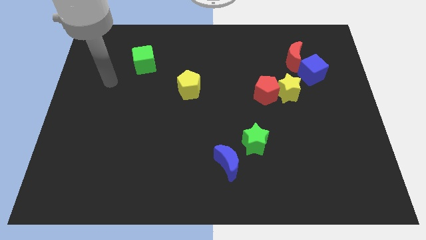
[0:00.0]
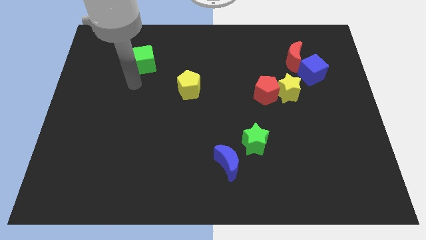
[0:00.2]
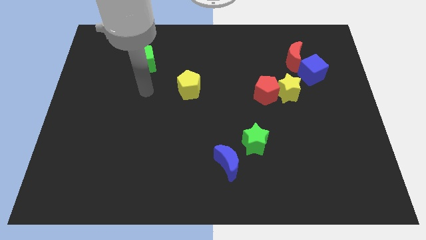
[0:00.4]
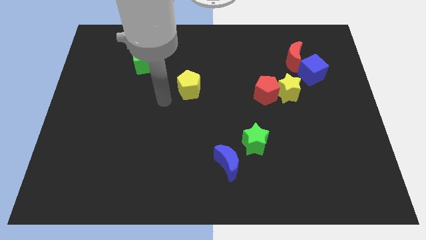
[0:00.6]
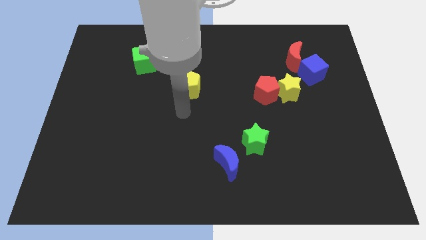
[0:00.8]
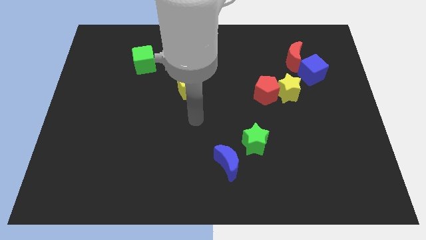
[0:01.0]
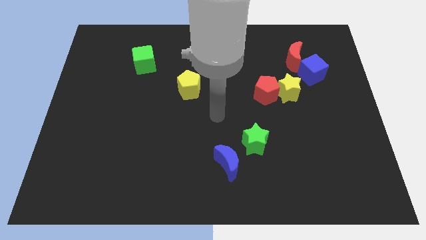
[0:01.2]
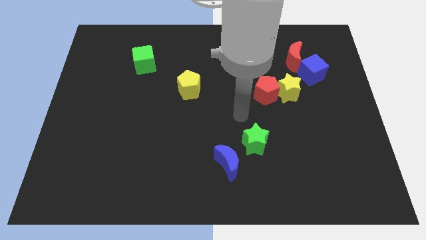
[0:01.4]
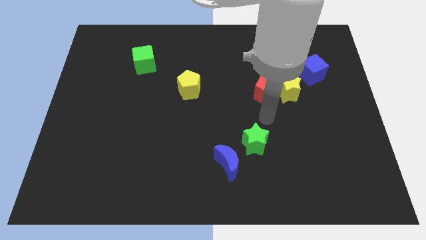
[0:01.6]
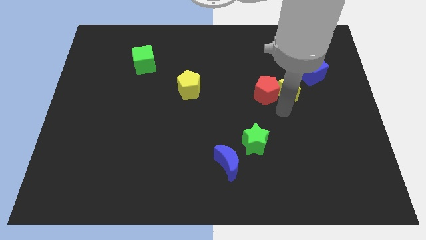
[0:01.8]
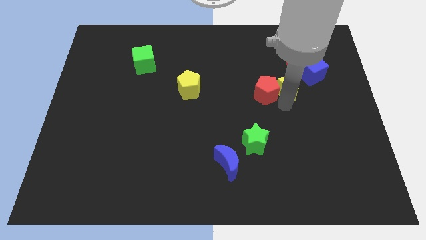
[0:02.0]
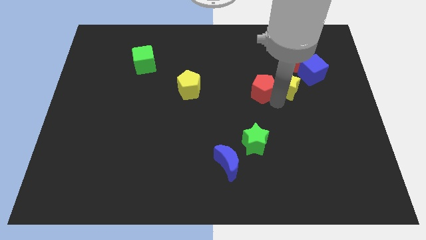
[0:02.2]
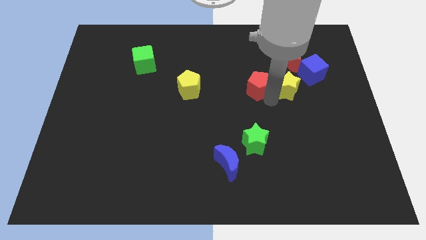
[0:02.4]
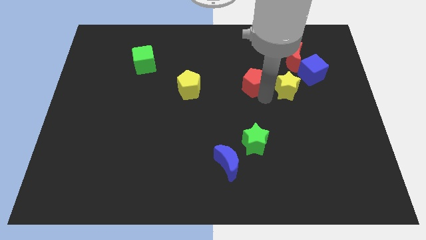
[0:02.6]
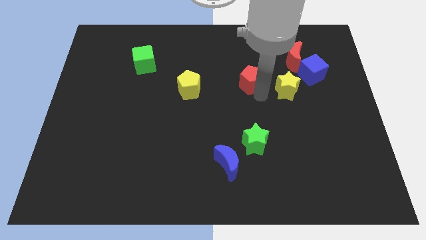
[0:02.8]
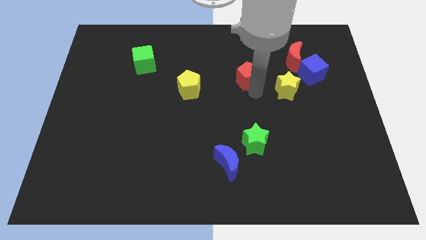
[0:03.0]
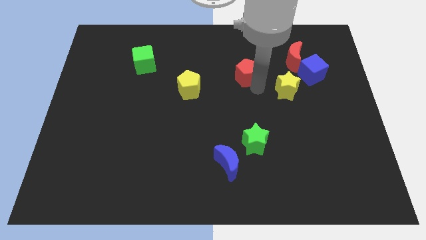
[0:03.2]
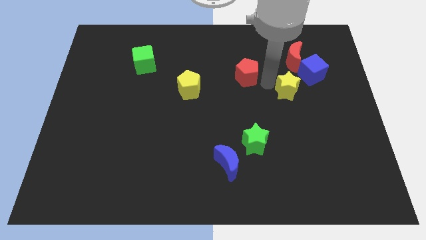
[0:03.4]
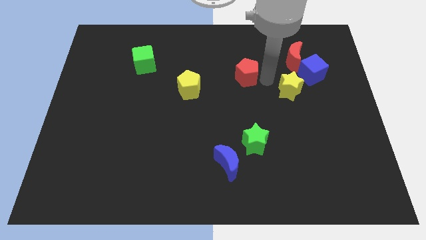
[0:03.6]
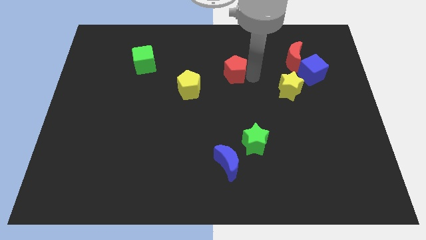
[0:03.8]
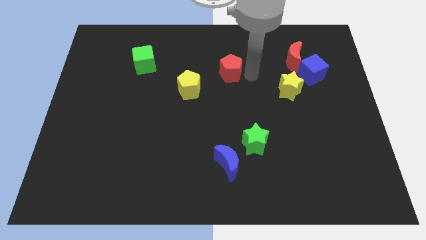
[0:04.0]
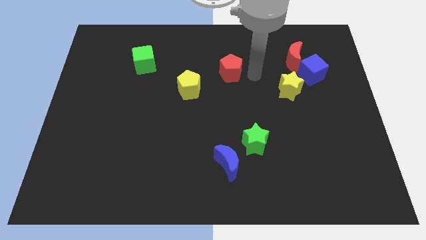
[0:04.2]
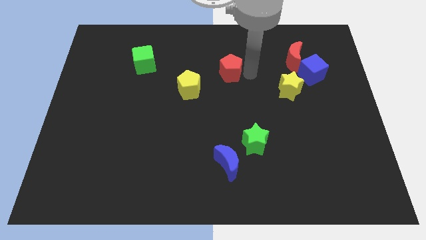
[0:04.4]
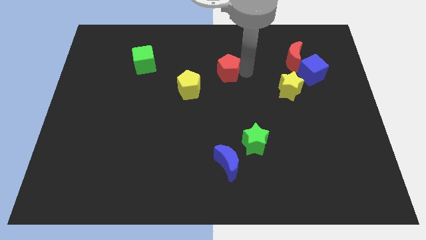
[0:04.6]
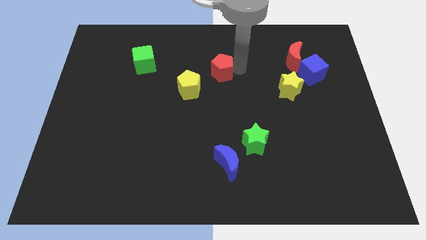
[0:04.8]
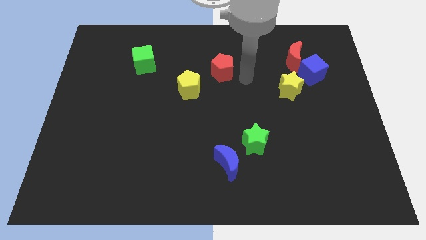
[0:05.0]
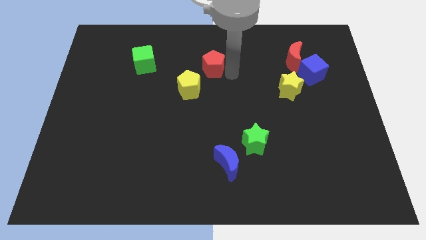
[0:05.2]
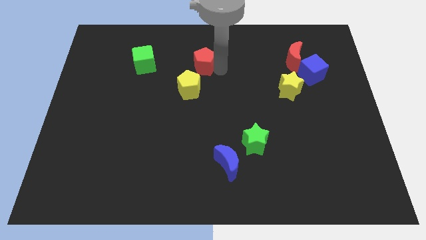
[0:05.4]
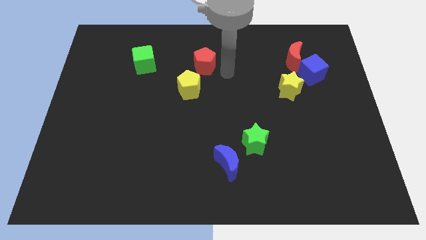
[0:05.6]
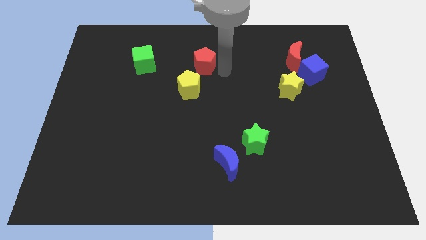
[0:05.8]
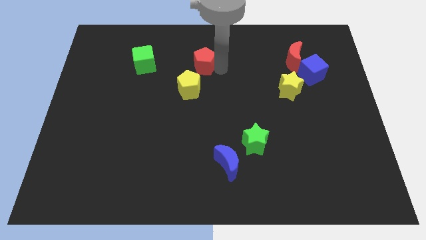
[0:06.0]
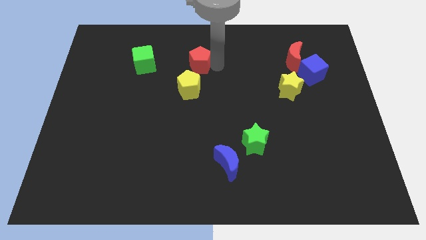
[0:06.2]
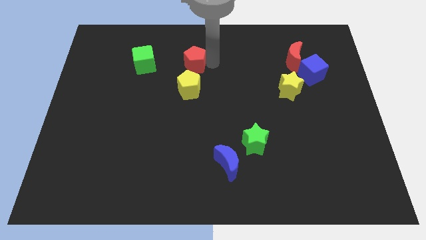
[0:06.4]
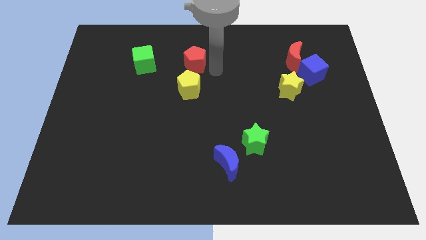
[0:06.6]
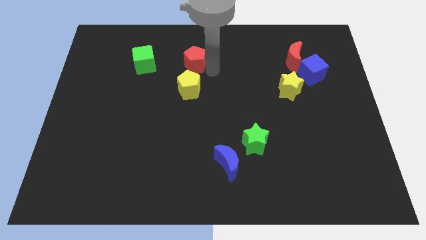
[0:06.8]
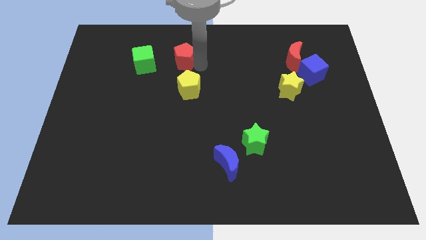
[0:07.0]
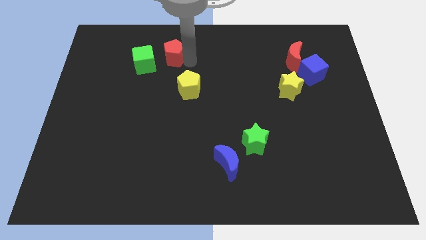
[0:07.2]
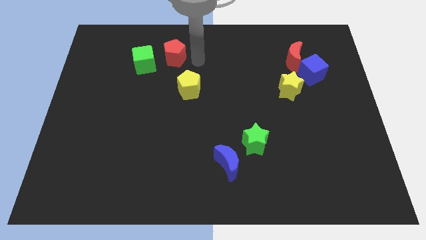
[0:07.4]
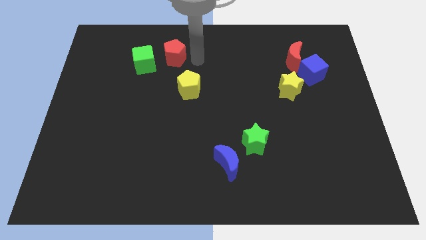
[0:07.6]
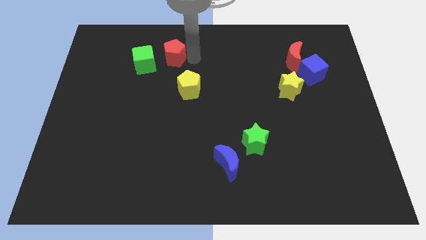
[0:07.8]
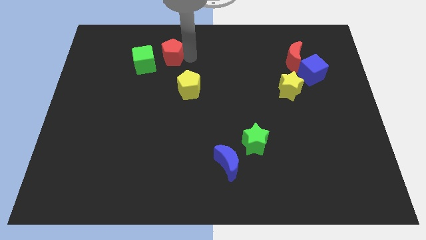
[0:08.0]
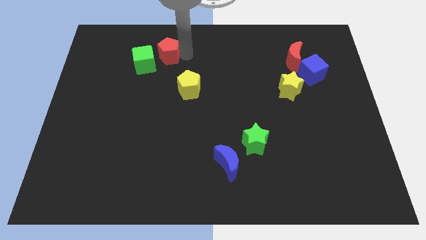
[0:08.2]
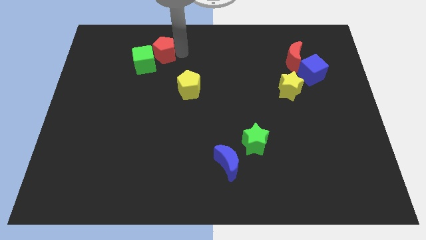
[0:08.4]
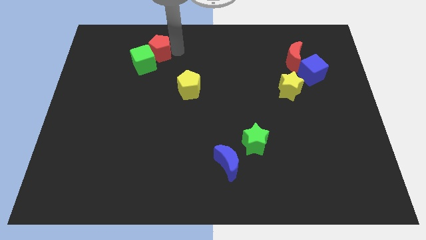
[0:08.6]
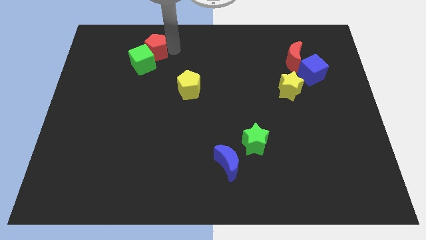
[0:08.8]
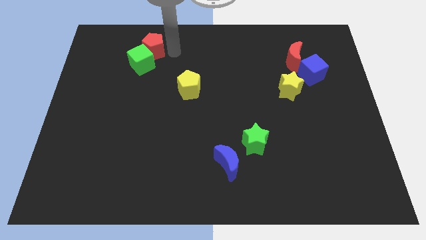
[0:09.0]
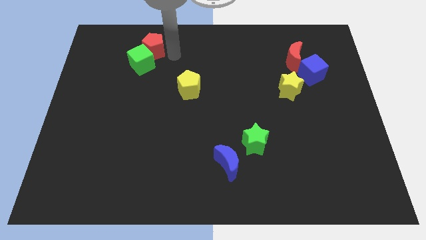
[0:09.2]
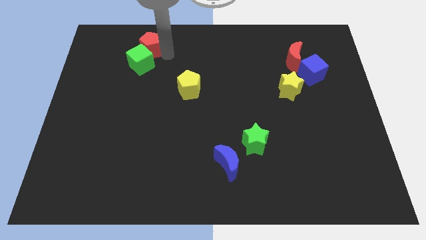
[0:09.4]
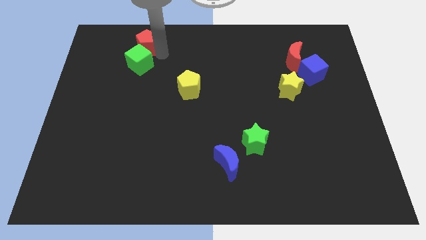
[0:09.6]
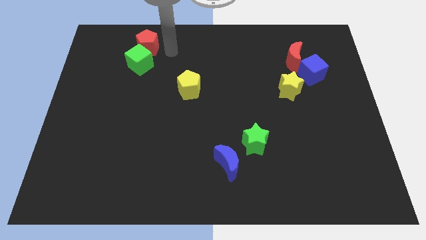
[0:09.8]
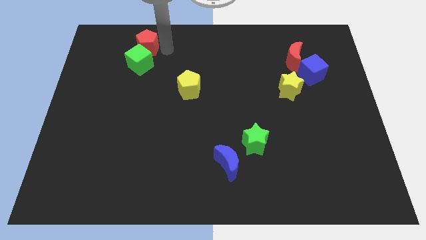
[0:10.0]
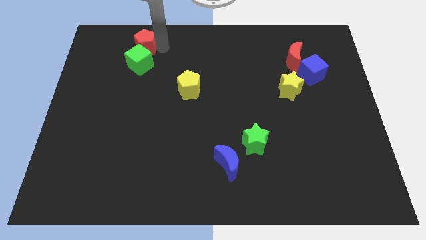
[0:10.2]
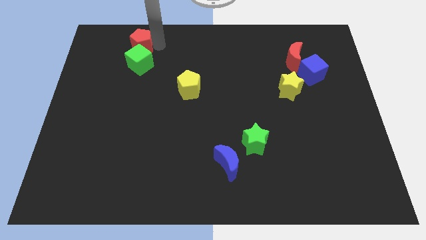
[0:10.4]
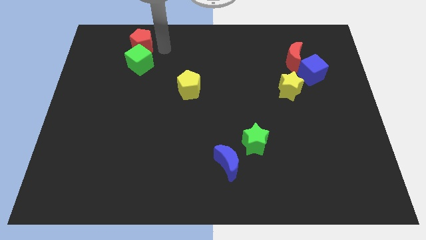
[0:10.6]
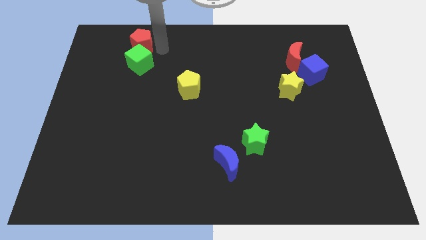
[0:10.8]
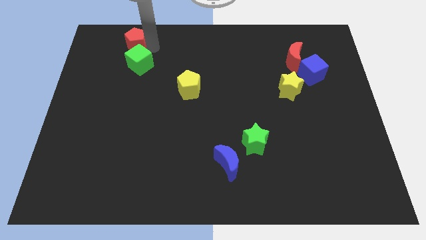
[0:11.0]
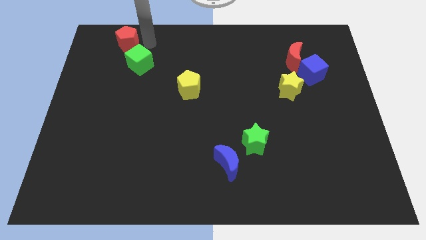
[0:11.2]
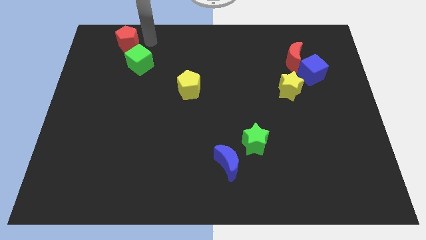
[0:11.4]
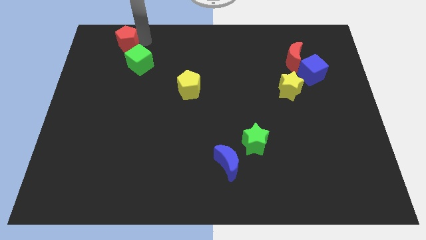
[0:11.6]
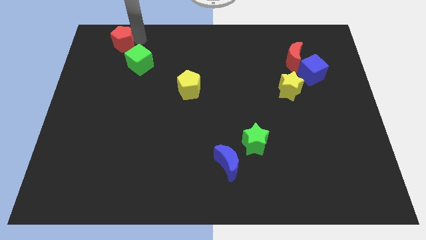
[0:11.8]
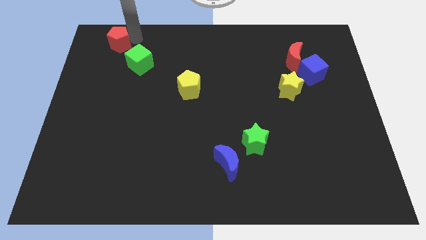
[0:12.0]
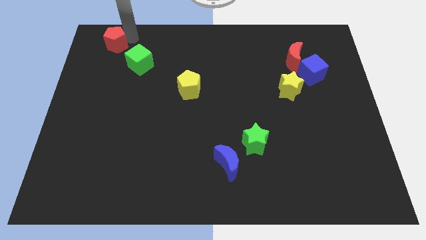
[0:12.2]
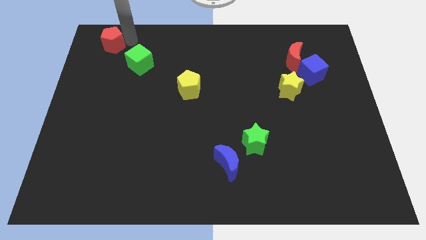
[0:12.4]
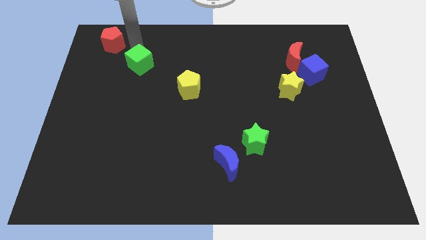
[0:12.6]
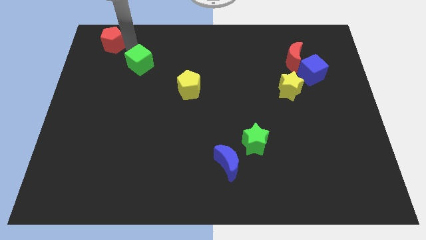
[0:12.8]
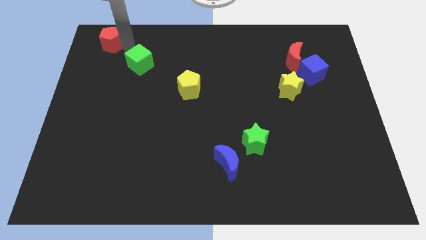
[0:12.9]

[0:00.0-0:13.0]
move the red pentagon to the top left of the board
